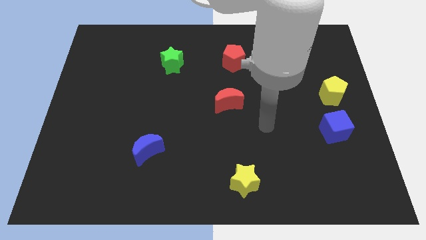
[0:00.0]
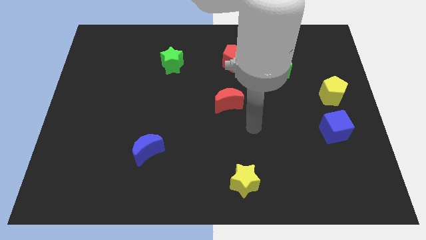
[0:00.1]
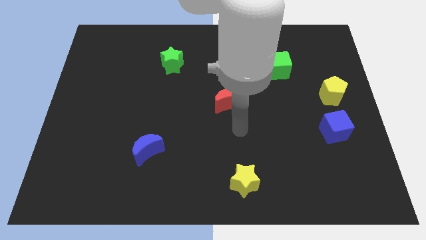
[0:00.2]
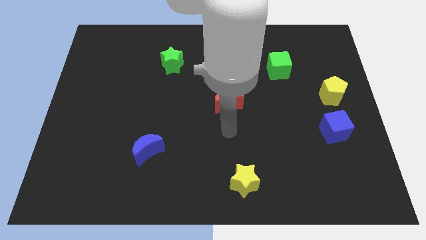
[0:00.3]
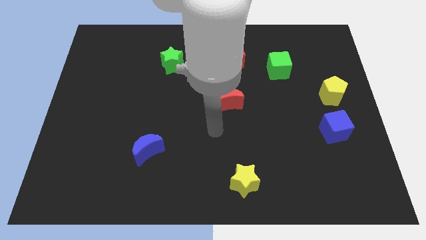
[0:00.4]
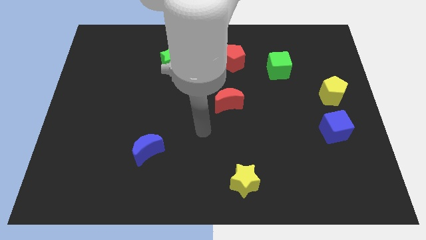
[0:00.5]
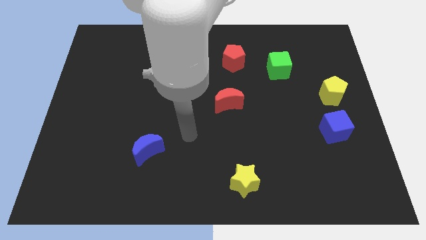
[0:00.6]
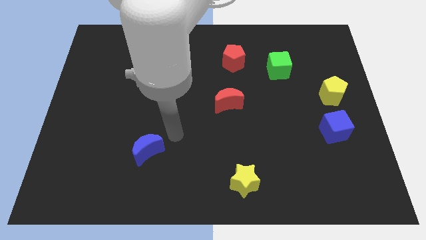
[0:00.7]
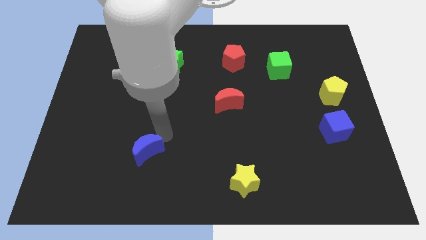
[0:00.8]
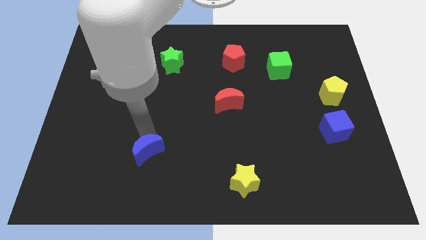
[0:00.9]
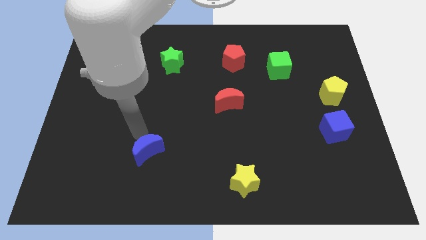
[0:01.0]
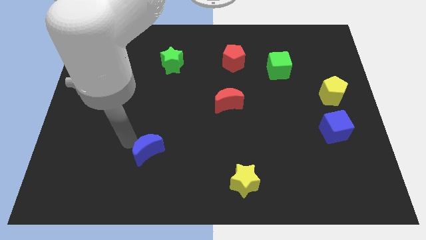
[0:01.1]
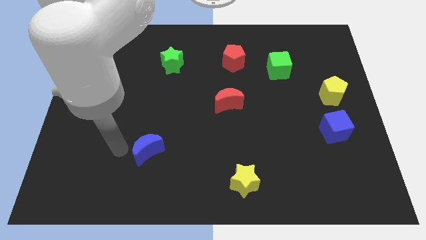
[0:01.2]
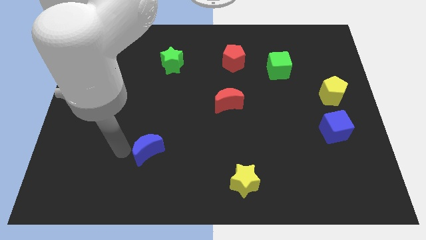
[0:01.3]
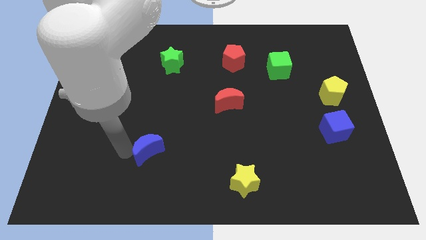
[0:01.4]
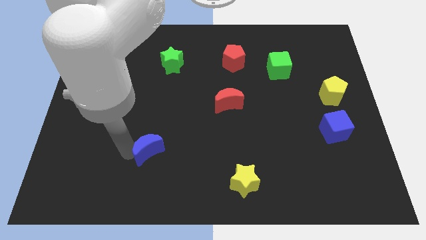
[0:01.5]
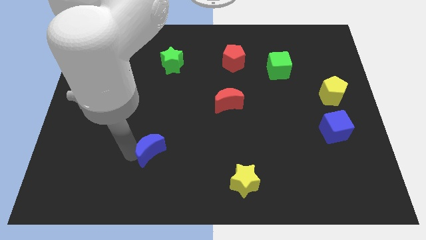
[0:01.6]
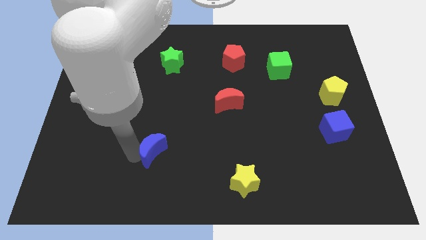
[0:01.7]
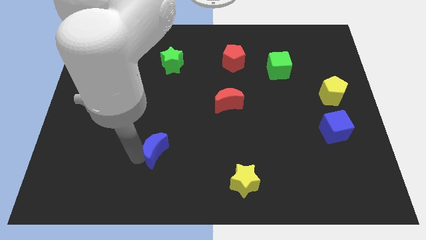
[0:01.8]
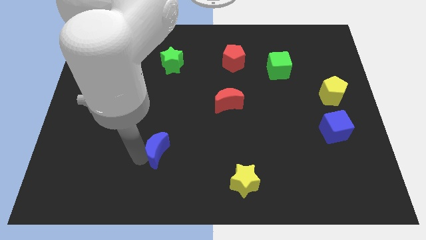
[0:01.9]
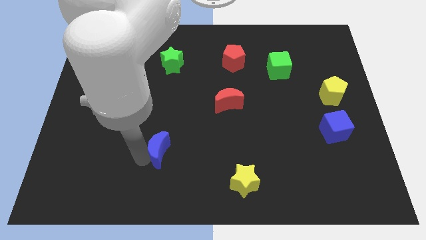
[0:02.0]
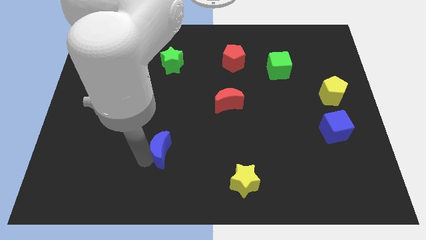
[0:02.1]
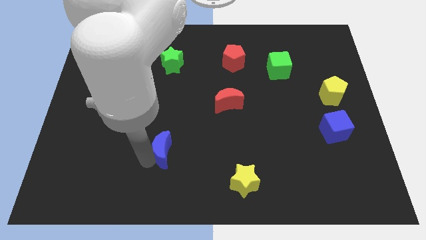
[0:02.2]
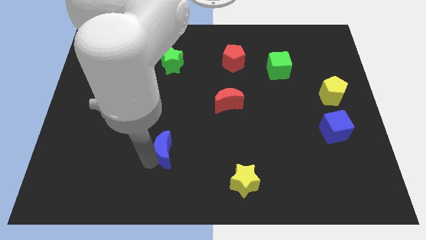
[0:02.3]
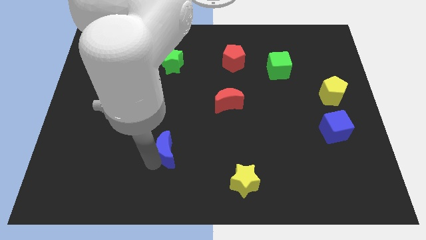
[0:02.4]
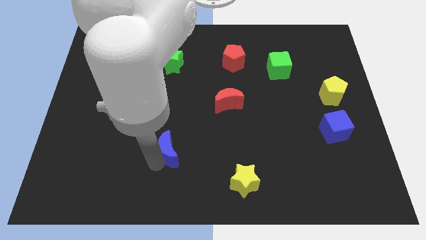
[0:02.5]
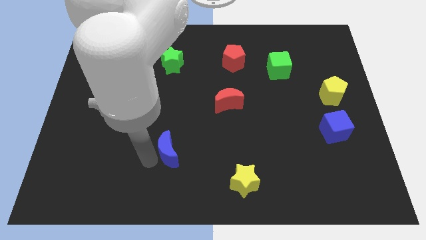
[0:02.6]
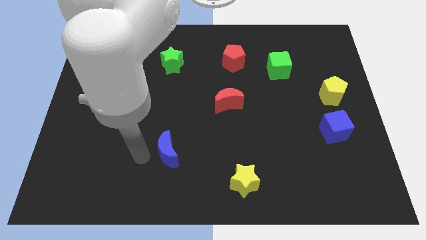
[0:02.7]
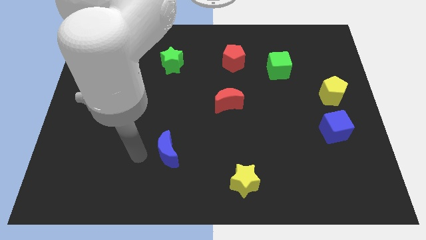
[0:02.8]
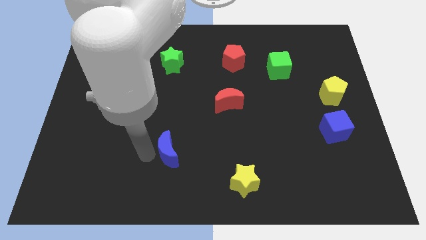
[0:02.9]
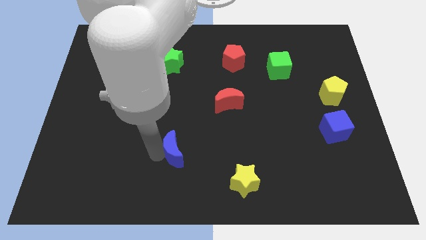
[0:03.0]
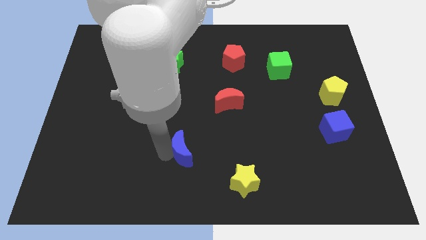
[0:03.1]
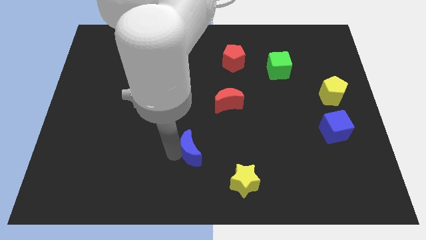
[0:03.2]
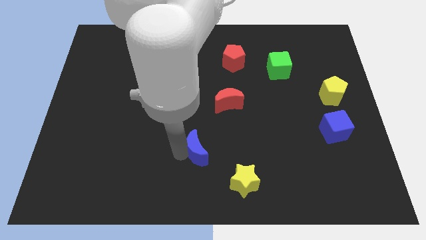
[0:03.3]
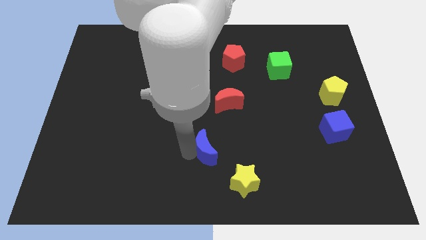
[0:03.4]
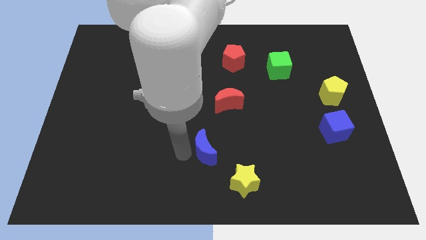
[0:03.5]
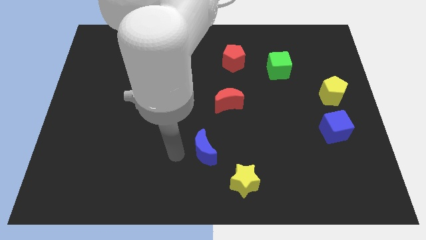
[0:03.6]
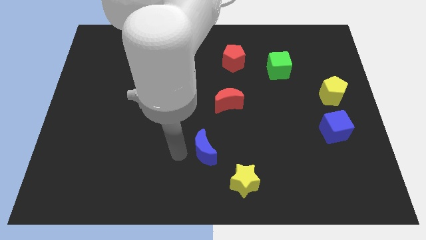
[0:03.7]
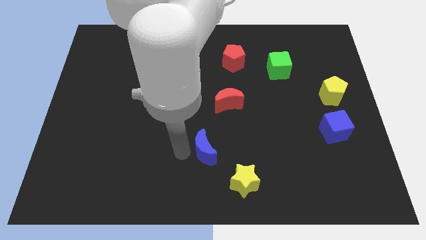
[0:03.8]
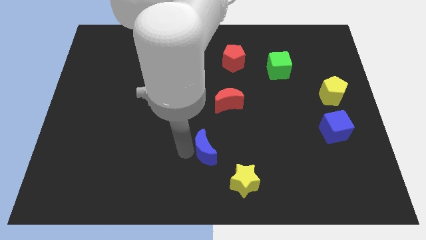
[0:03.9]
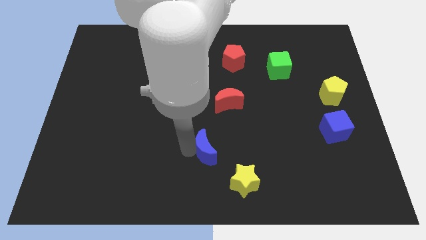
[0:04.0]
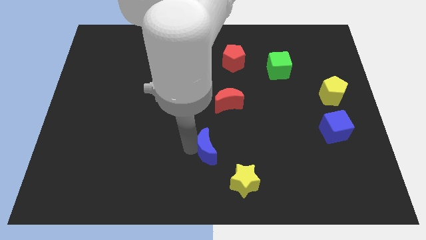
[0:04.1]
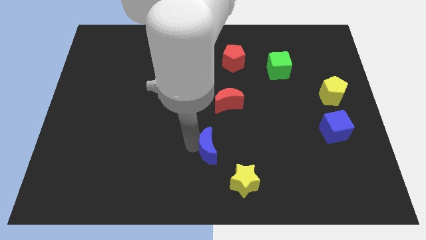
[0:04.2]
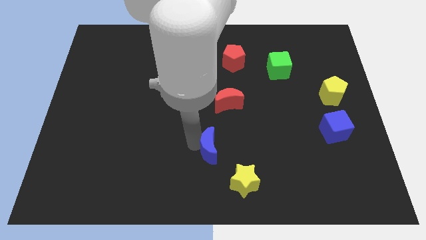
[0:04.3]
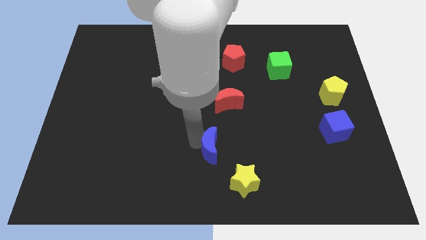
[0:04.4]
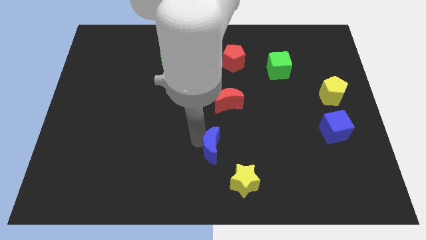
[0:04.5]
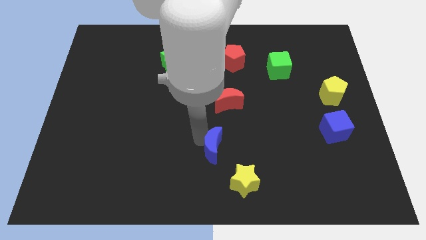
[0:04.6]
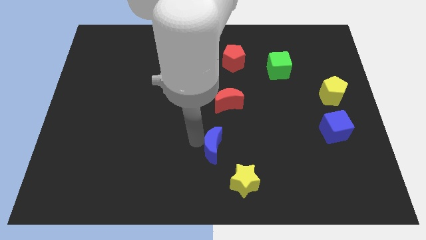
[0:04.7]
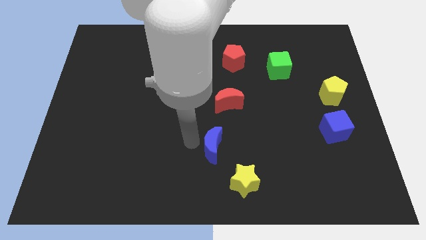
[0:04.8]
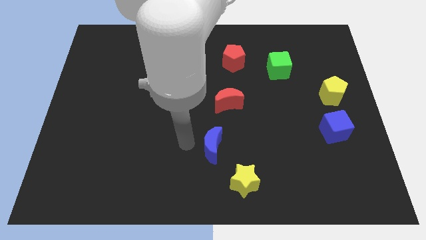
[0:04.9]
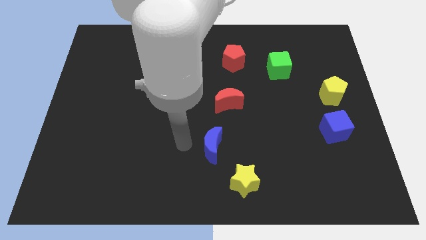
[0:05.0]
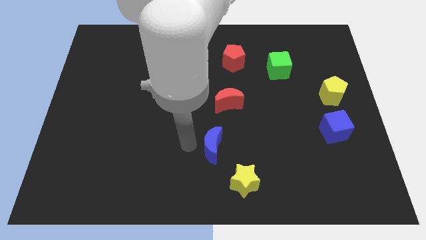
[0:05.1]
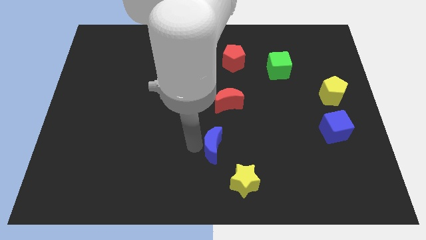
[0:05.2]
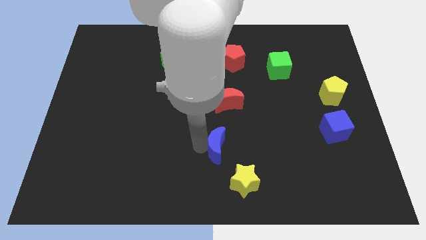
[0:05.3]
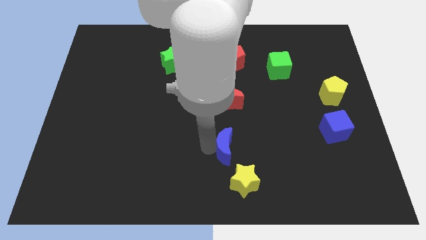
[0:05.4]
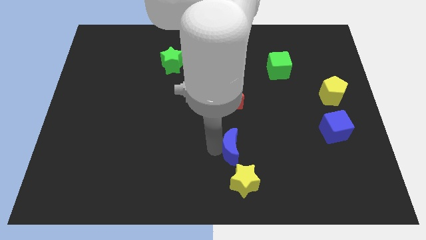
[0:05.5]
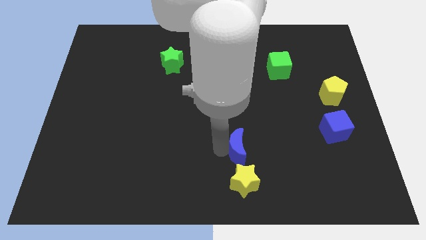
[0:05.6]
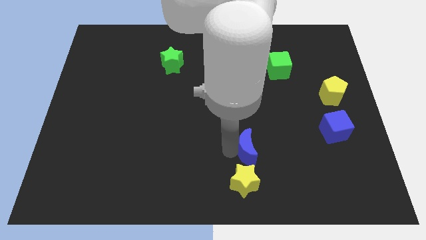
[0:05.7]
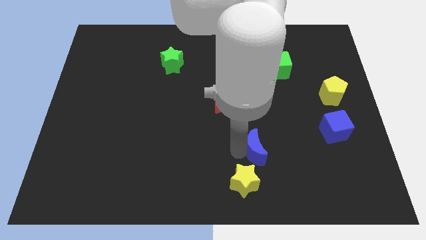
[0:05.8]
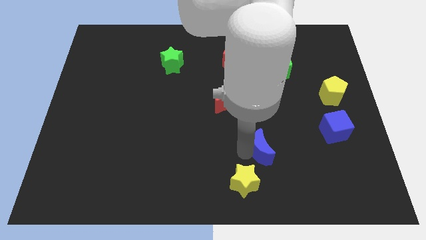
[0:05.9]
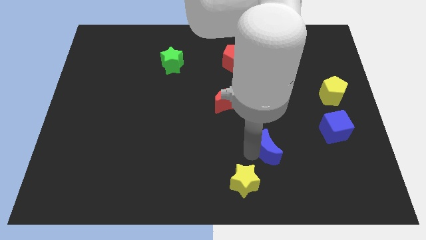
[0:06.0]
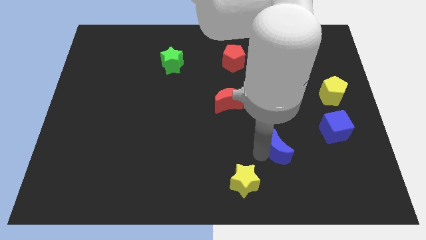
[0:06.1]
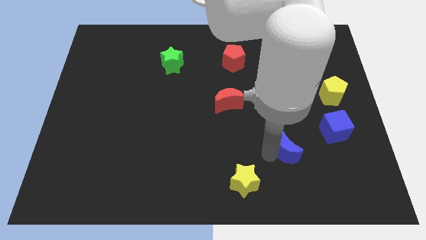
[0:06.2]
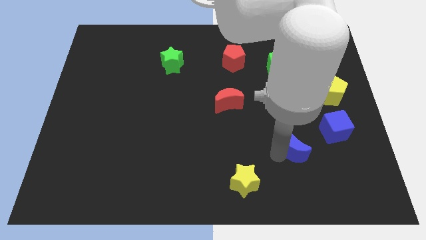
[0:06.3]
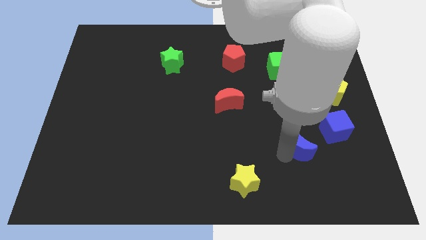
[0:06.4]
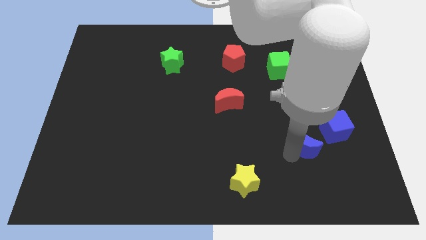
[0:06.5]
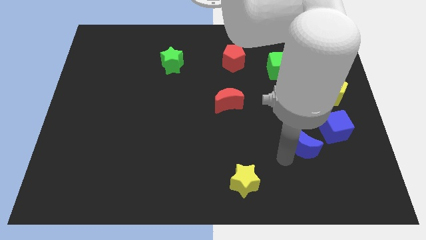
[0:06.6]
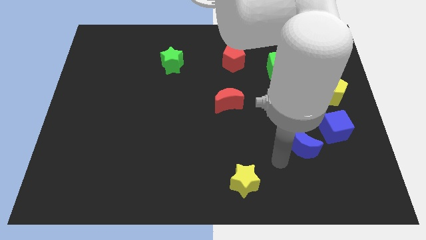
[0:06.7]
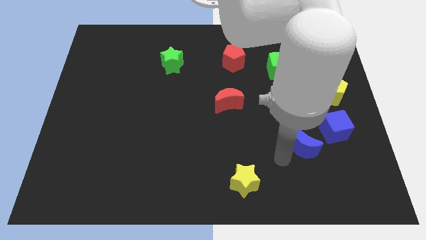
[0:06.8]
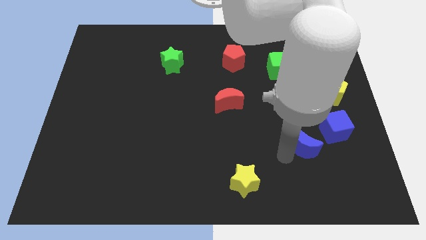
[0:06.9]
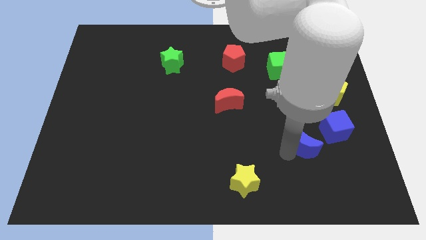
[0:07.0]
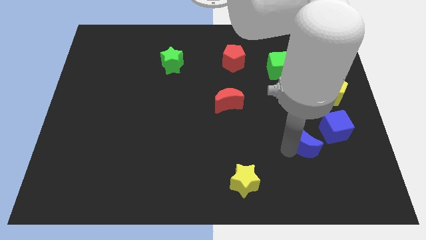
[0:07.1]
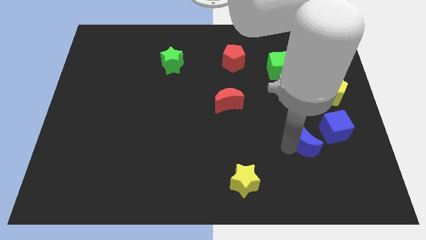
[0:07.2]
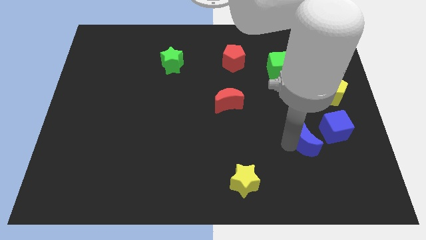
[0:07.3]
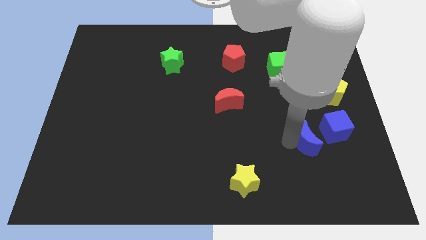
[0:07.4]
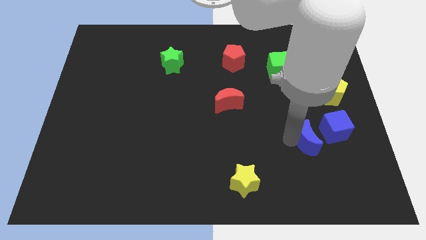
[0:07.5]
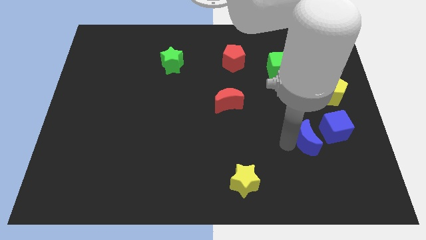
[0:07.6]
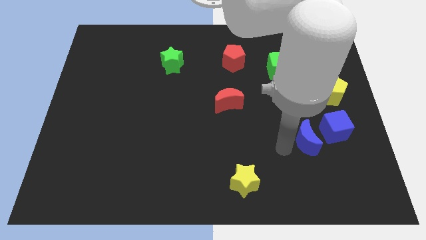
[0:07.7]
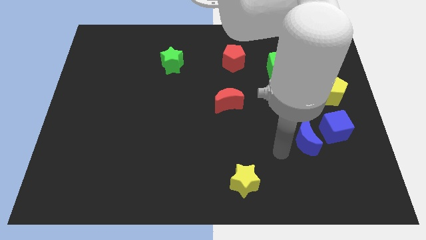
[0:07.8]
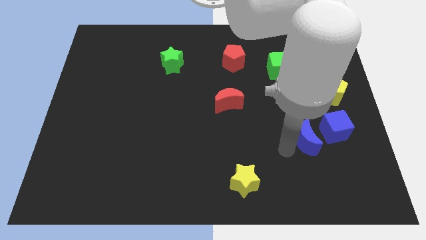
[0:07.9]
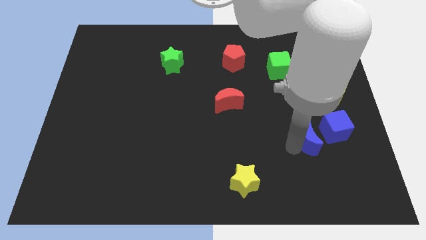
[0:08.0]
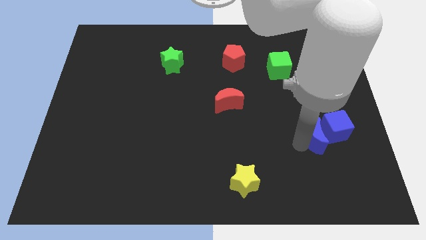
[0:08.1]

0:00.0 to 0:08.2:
move the blue moon next to the blue cube

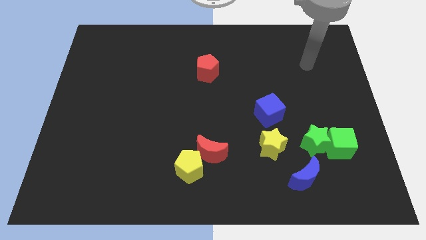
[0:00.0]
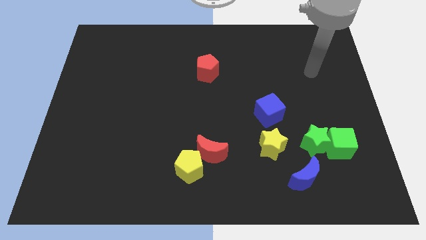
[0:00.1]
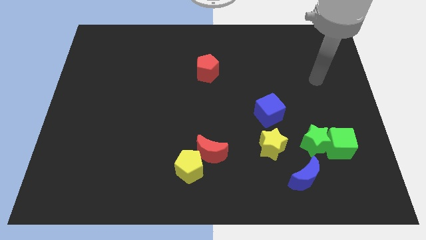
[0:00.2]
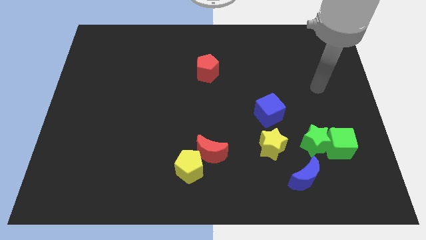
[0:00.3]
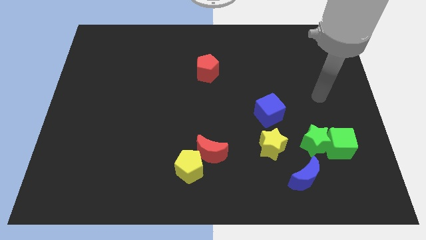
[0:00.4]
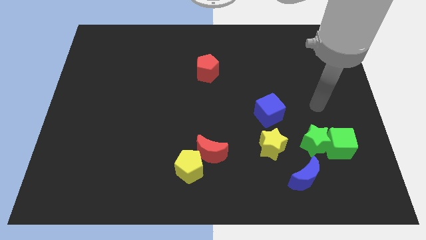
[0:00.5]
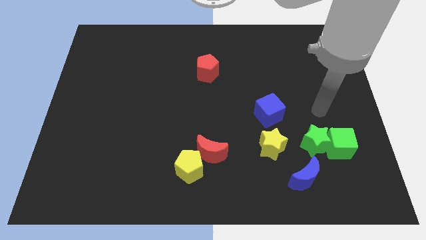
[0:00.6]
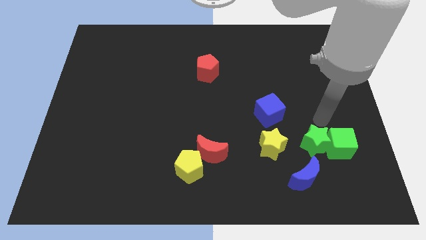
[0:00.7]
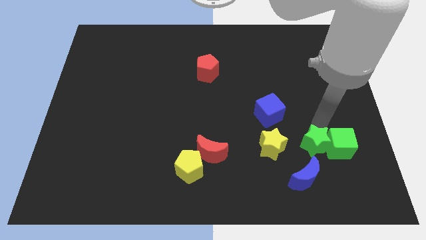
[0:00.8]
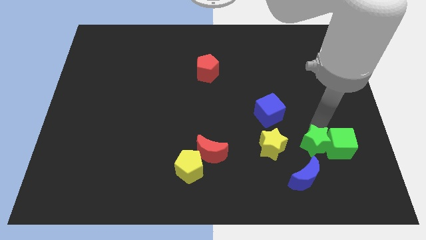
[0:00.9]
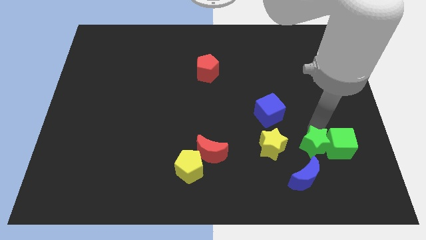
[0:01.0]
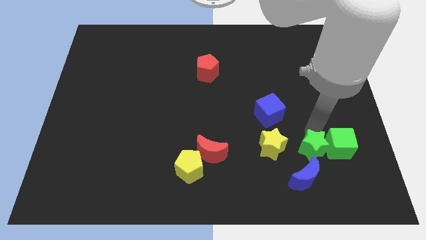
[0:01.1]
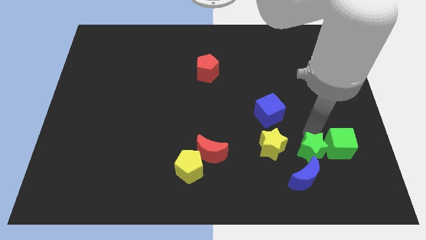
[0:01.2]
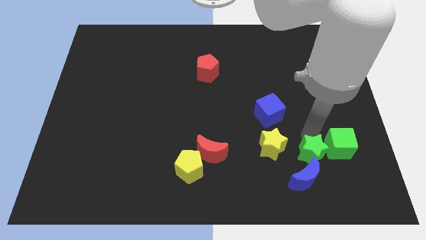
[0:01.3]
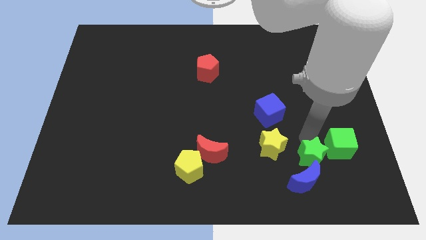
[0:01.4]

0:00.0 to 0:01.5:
slide the green star next to the blue moon
